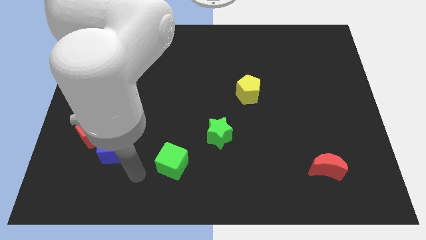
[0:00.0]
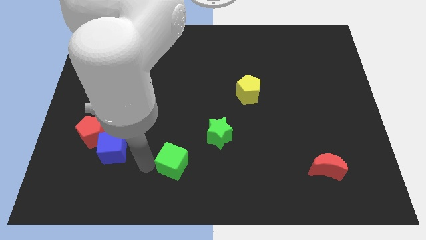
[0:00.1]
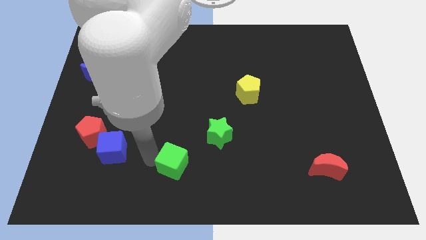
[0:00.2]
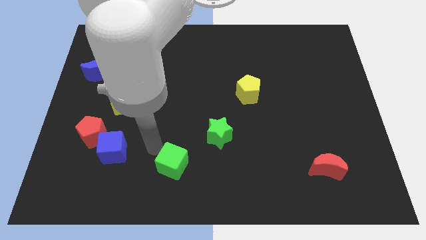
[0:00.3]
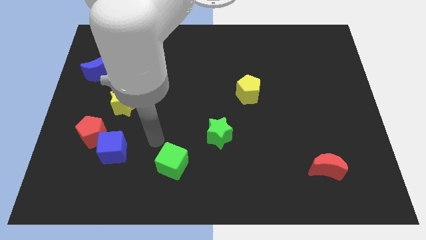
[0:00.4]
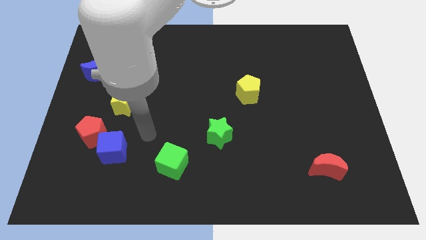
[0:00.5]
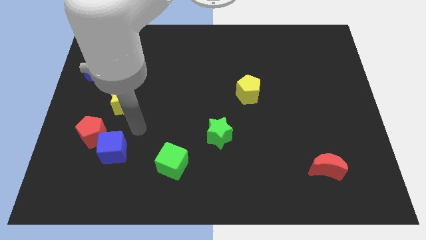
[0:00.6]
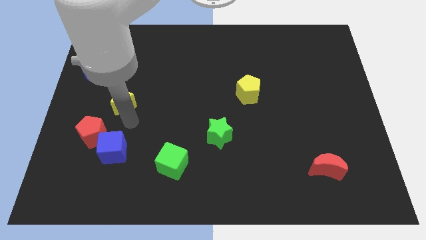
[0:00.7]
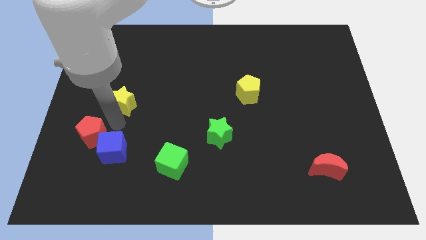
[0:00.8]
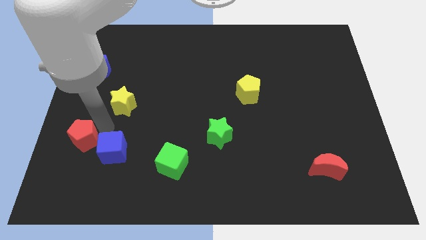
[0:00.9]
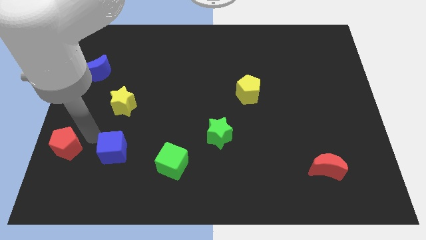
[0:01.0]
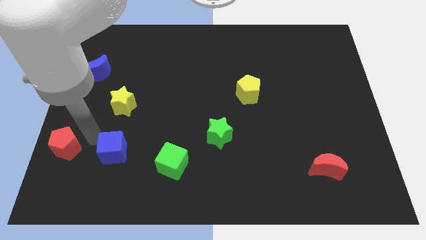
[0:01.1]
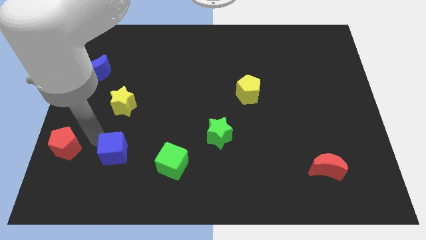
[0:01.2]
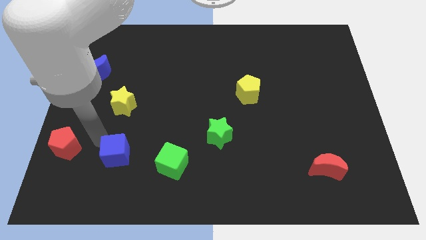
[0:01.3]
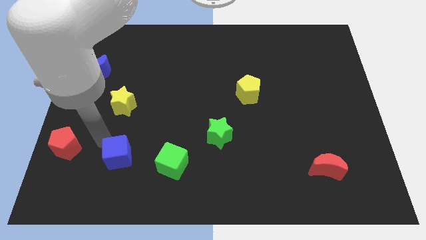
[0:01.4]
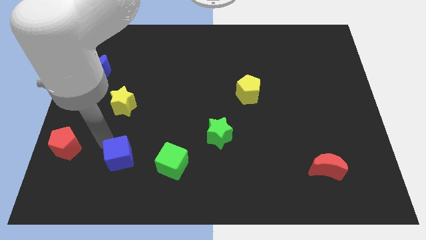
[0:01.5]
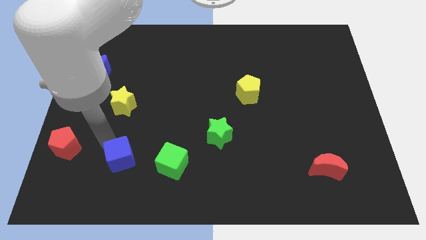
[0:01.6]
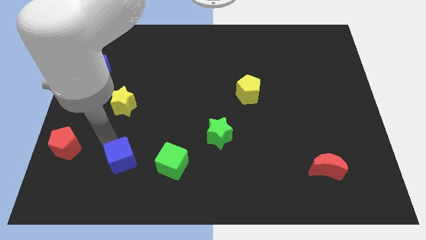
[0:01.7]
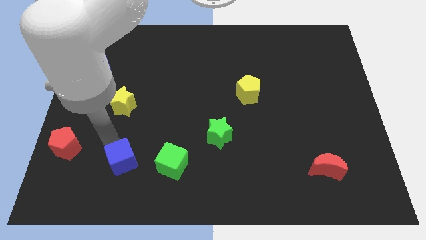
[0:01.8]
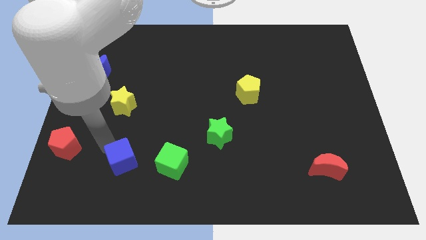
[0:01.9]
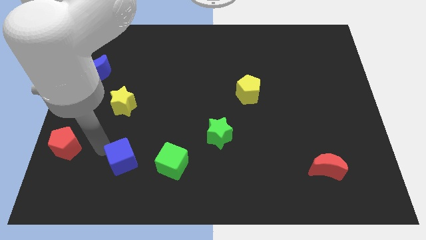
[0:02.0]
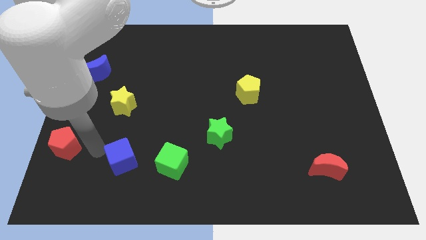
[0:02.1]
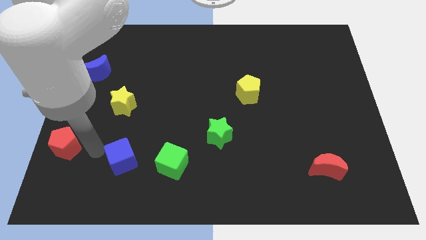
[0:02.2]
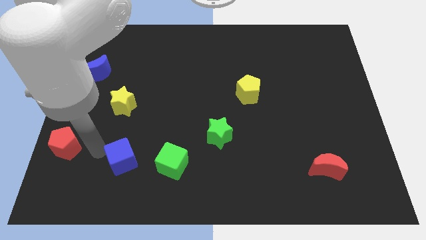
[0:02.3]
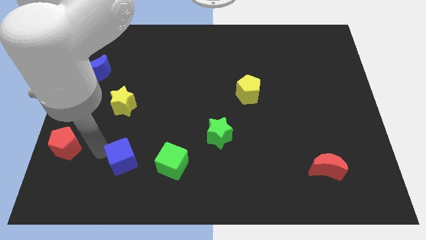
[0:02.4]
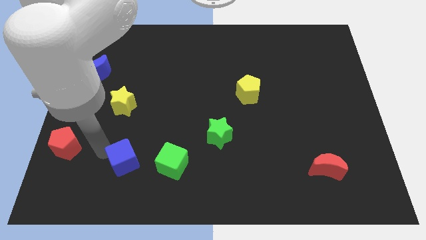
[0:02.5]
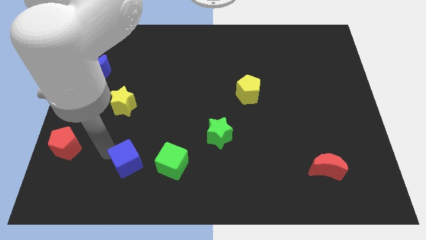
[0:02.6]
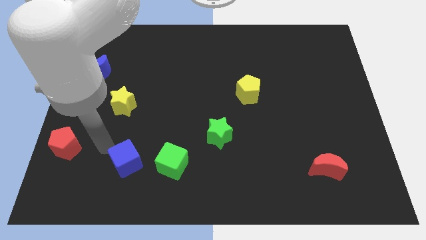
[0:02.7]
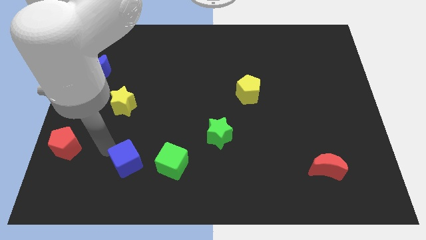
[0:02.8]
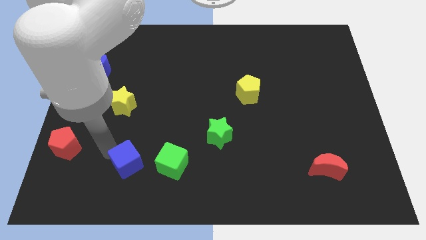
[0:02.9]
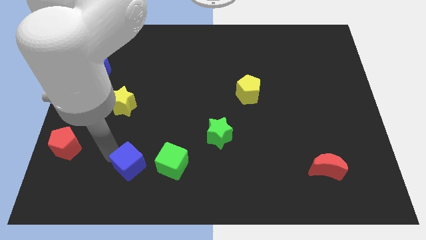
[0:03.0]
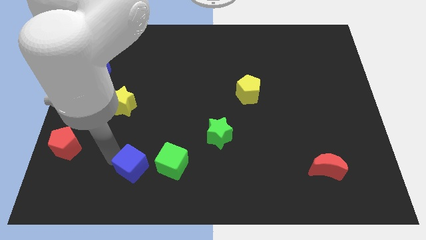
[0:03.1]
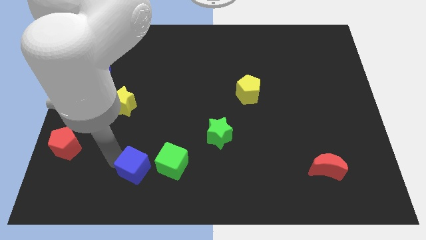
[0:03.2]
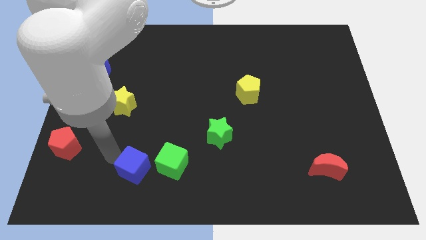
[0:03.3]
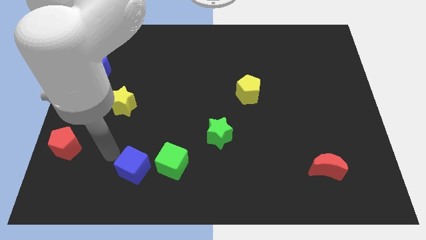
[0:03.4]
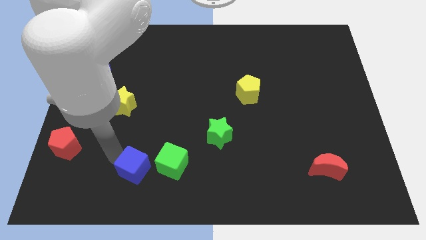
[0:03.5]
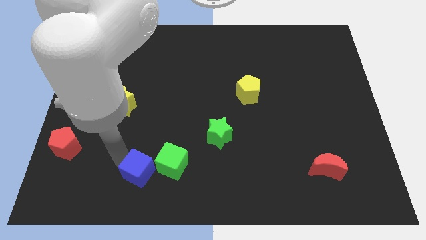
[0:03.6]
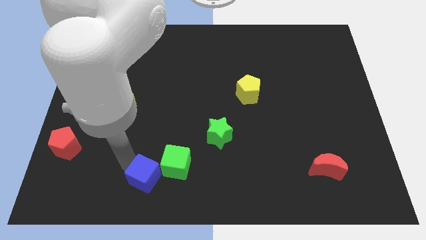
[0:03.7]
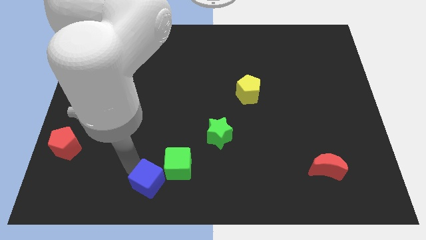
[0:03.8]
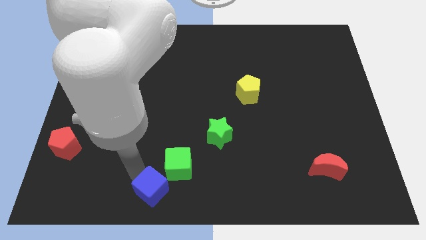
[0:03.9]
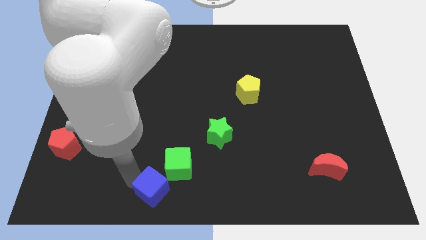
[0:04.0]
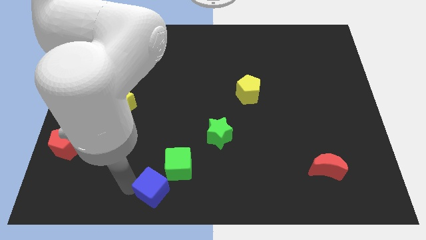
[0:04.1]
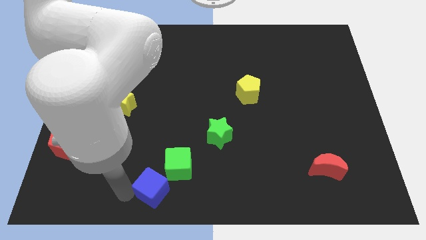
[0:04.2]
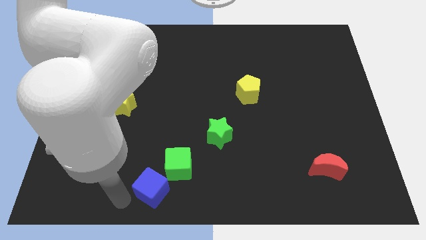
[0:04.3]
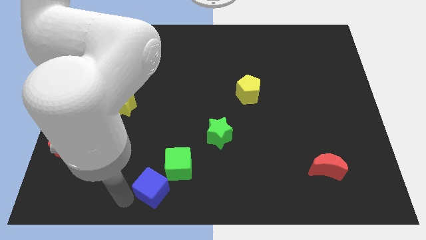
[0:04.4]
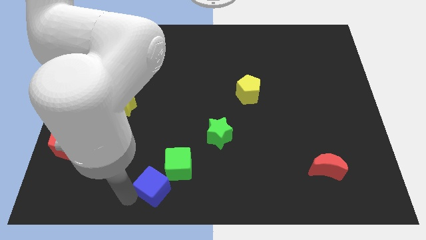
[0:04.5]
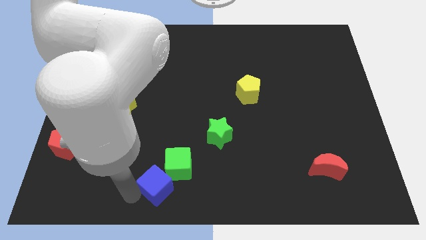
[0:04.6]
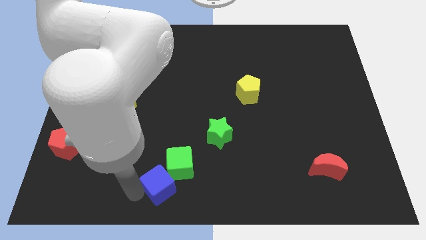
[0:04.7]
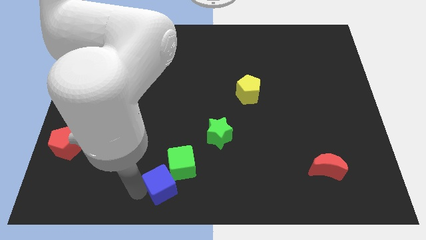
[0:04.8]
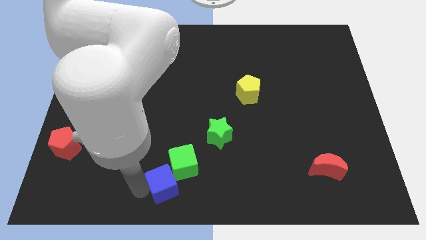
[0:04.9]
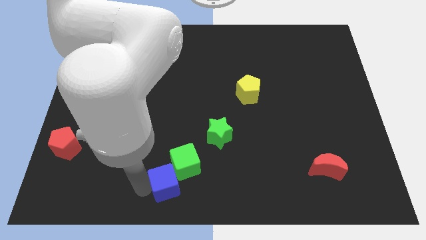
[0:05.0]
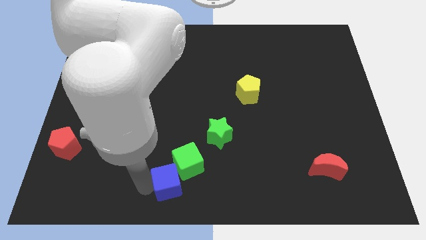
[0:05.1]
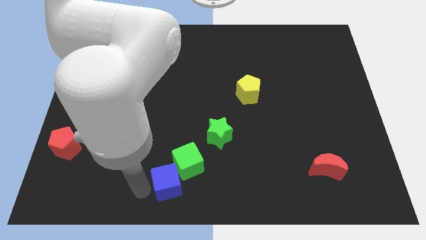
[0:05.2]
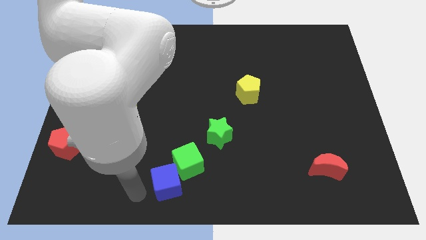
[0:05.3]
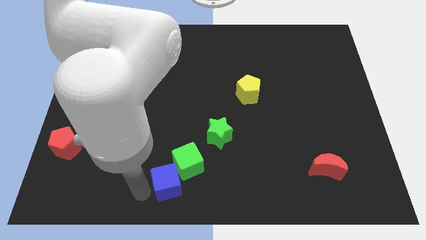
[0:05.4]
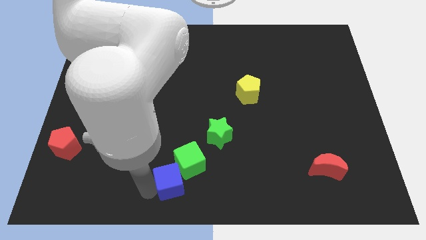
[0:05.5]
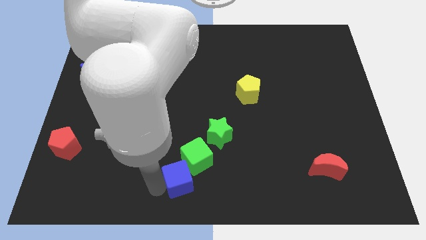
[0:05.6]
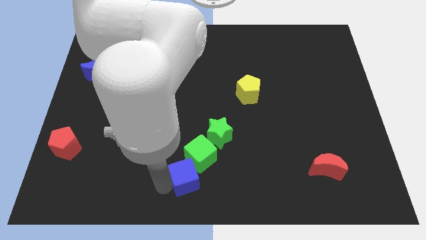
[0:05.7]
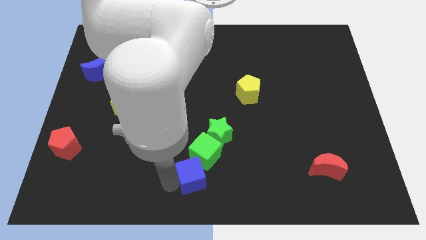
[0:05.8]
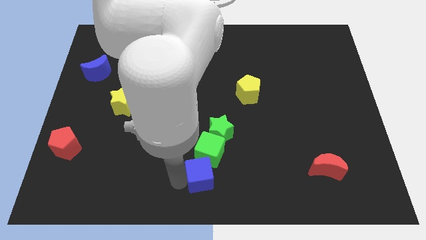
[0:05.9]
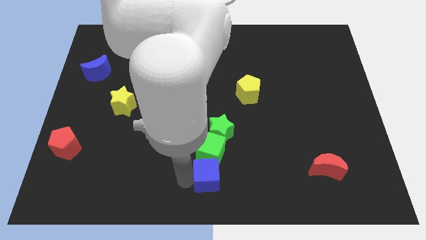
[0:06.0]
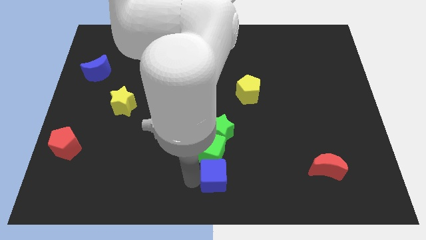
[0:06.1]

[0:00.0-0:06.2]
slide the blue cube right

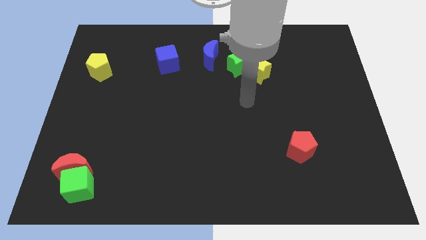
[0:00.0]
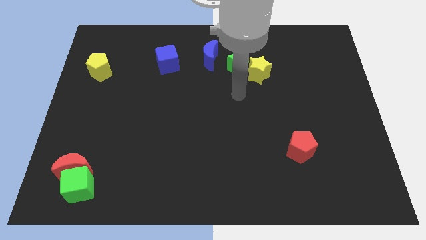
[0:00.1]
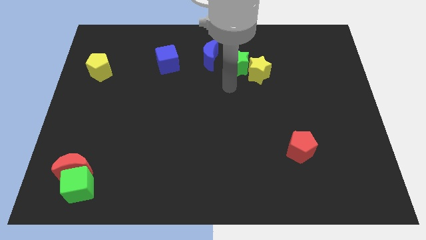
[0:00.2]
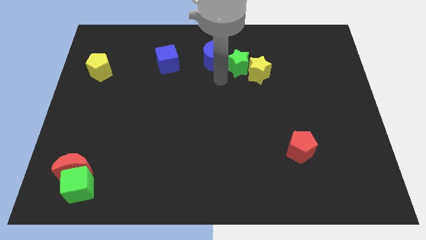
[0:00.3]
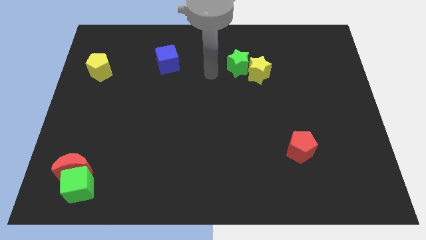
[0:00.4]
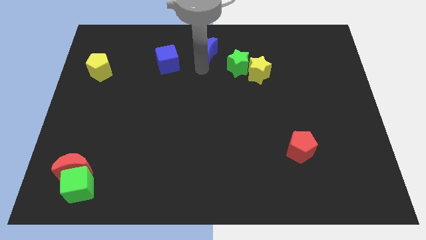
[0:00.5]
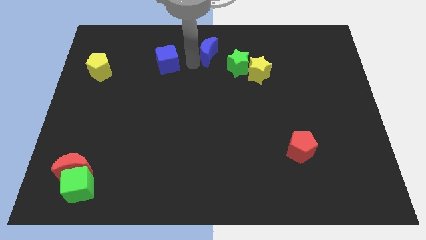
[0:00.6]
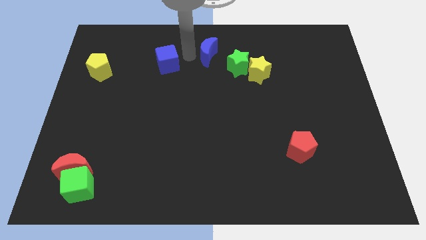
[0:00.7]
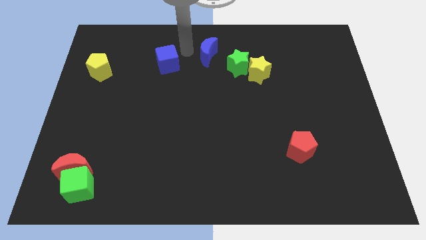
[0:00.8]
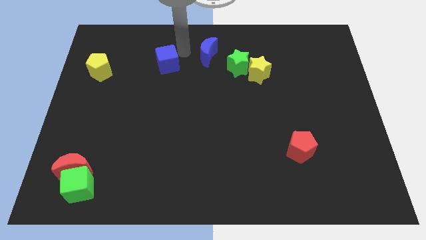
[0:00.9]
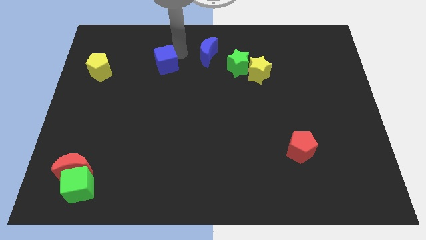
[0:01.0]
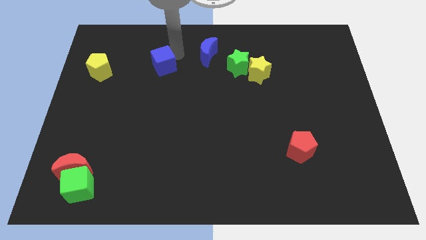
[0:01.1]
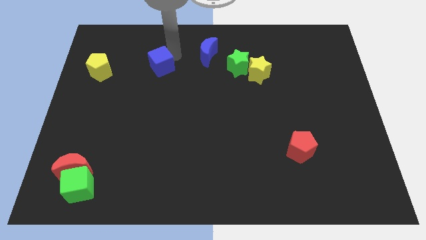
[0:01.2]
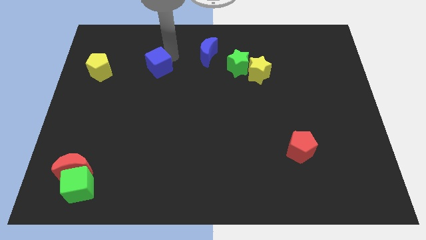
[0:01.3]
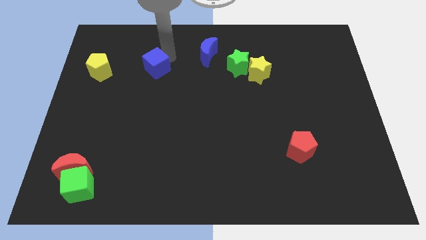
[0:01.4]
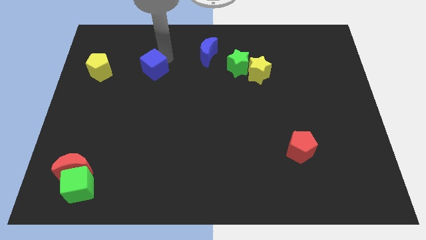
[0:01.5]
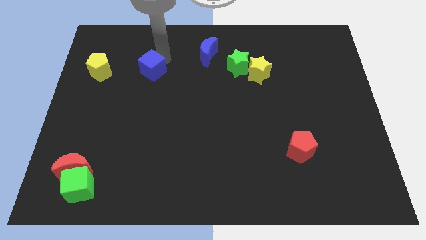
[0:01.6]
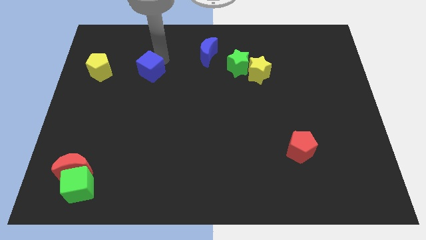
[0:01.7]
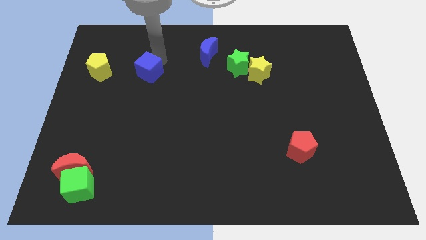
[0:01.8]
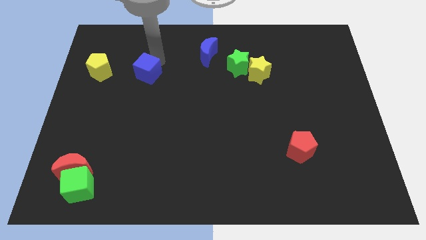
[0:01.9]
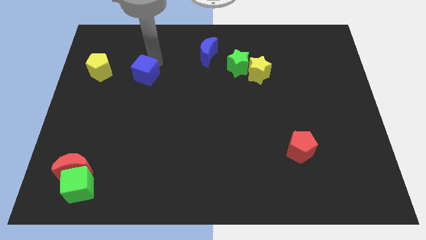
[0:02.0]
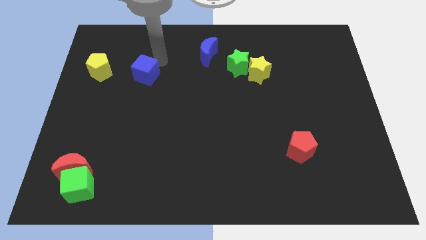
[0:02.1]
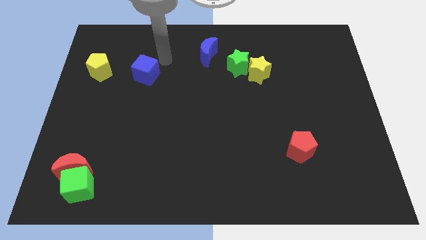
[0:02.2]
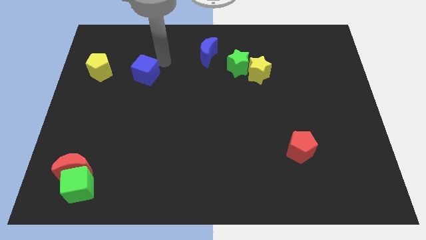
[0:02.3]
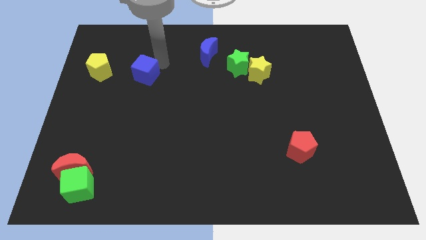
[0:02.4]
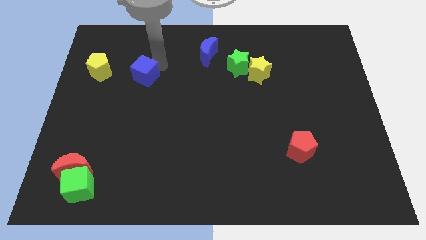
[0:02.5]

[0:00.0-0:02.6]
push the blue cube a little diagonally downwards and left
